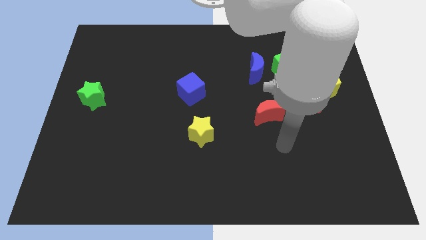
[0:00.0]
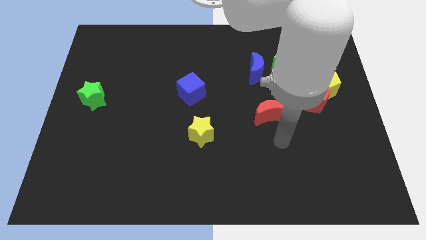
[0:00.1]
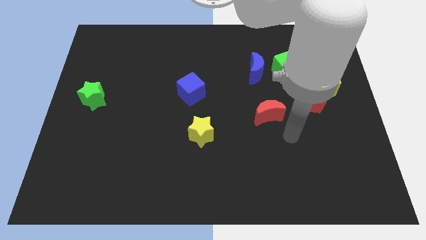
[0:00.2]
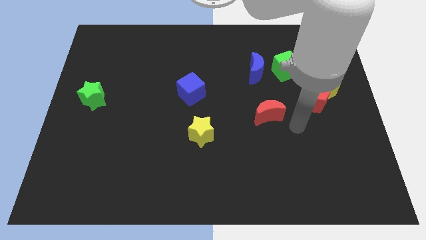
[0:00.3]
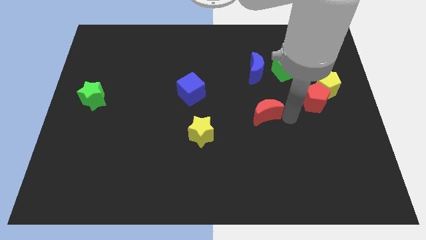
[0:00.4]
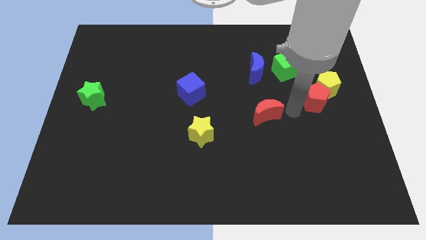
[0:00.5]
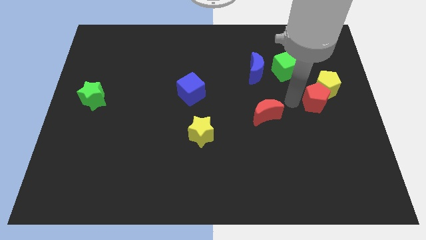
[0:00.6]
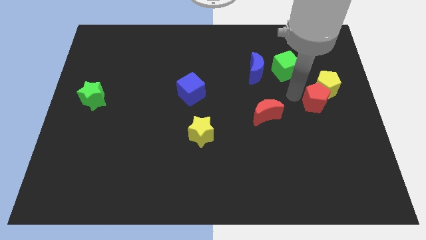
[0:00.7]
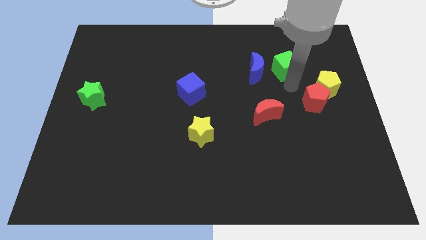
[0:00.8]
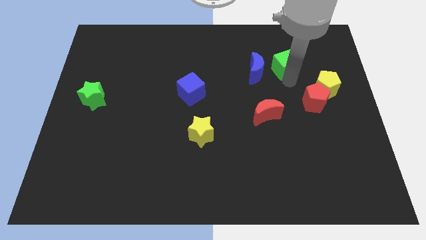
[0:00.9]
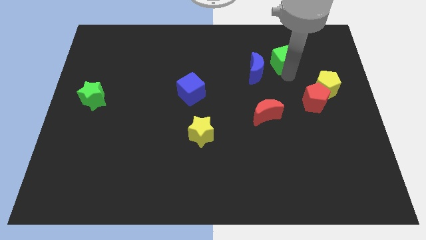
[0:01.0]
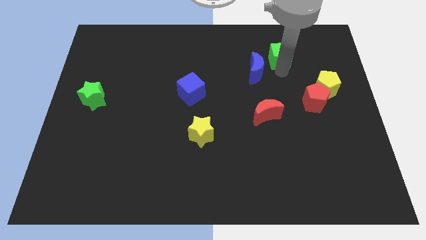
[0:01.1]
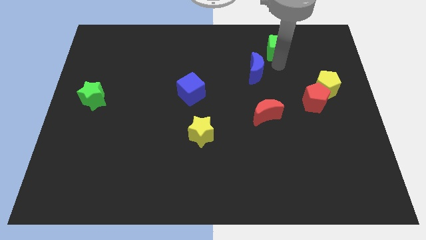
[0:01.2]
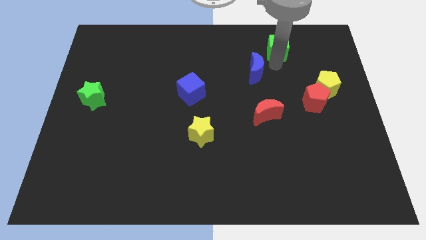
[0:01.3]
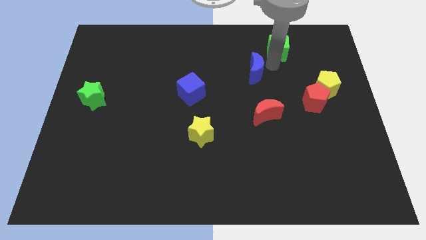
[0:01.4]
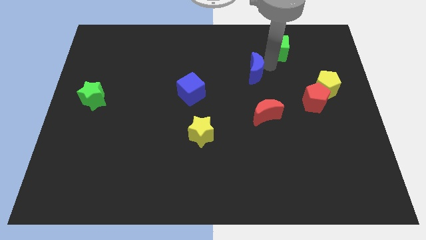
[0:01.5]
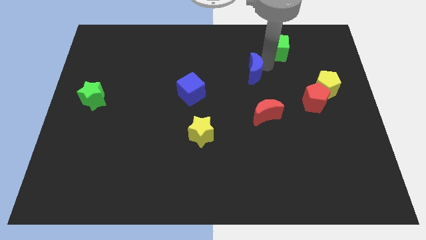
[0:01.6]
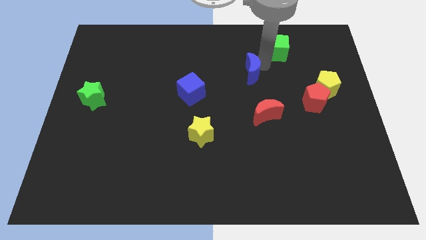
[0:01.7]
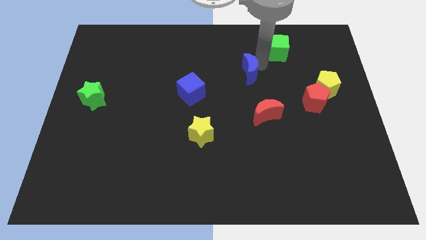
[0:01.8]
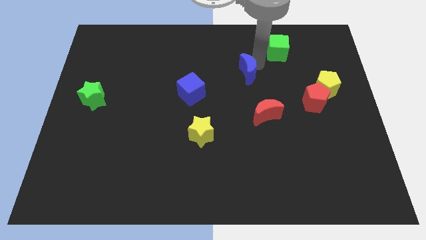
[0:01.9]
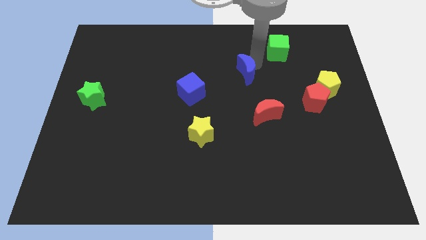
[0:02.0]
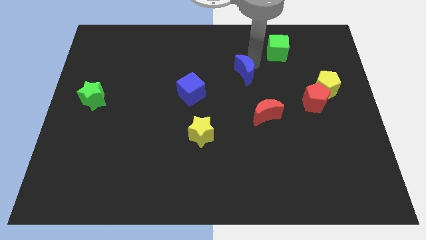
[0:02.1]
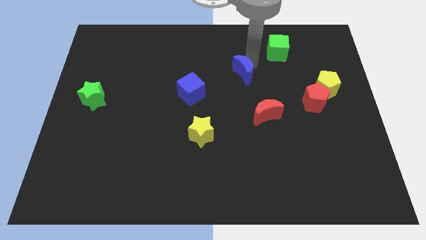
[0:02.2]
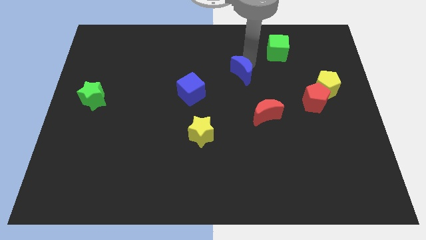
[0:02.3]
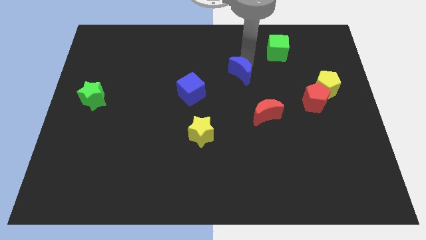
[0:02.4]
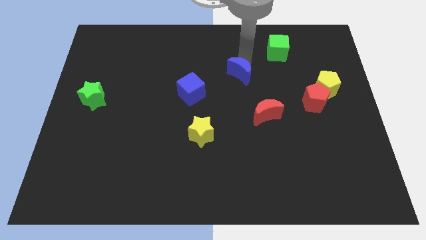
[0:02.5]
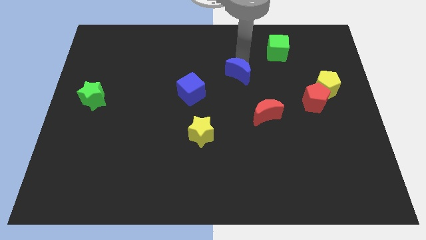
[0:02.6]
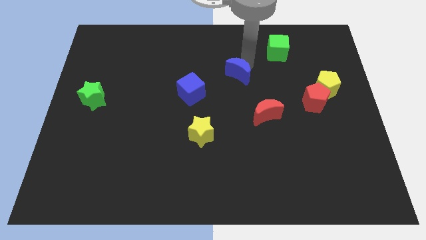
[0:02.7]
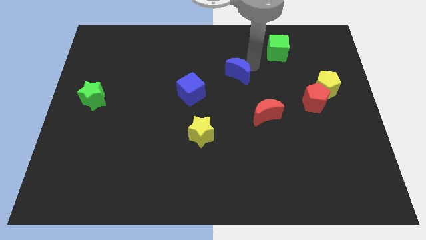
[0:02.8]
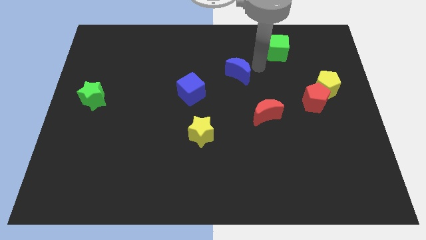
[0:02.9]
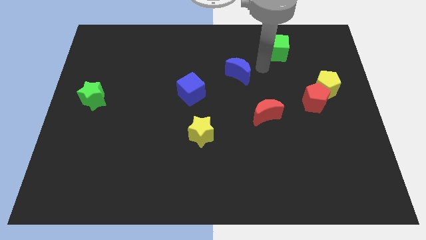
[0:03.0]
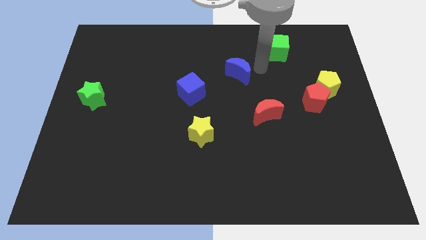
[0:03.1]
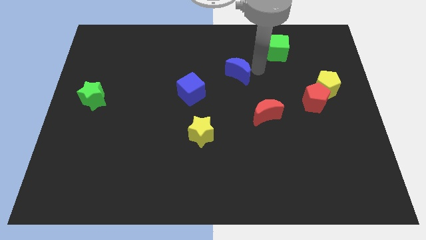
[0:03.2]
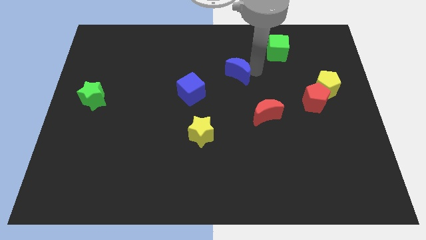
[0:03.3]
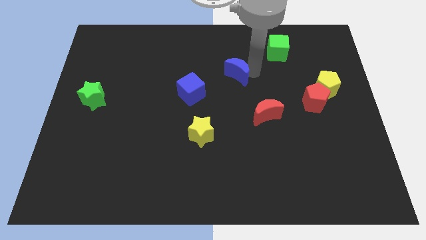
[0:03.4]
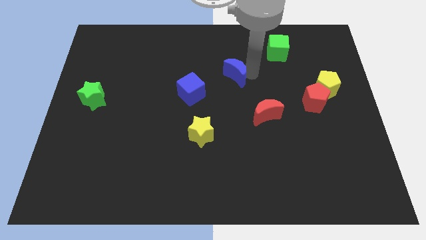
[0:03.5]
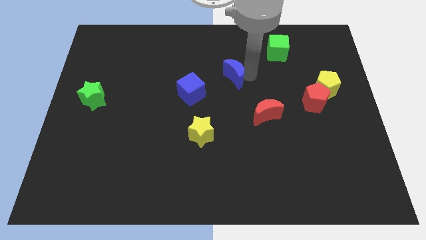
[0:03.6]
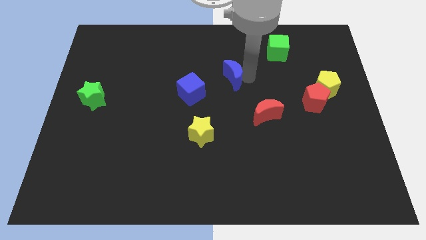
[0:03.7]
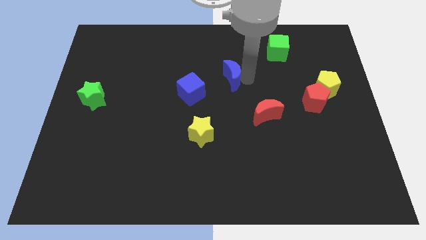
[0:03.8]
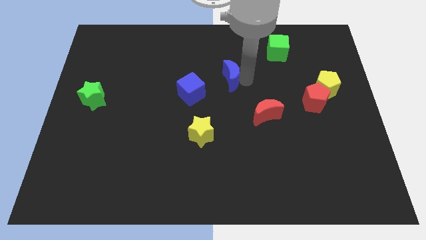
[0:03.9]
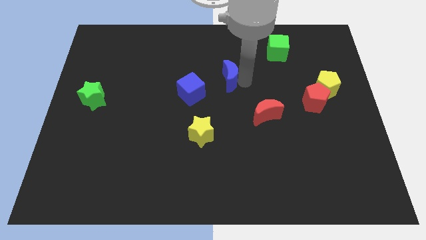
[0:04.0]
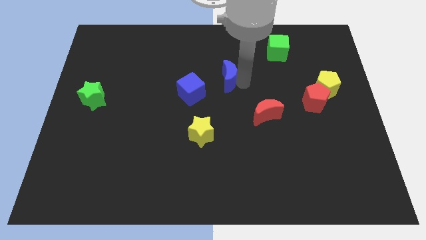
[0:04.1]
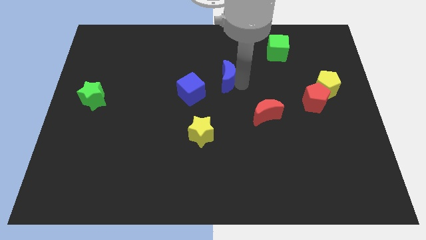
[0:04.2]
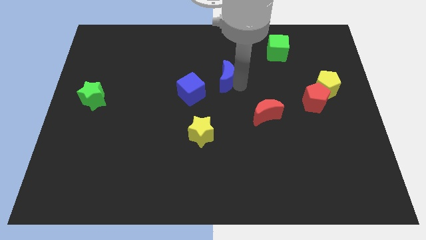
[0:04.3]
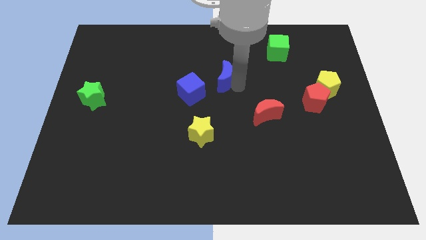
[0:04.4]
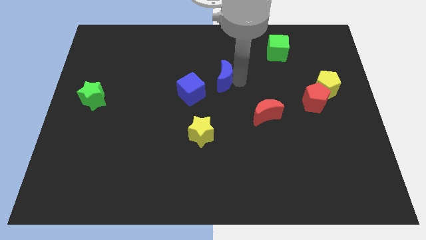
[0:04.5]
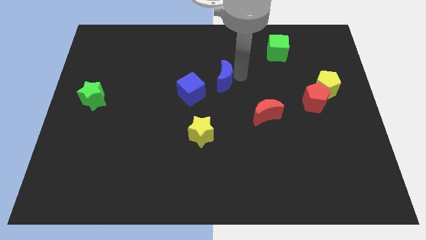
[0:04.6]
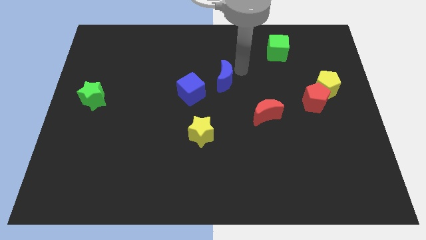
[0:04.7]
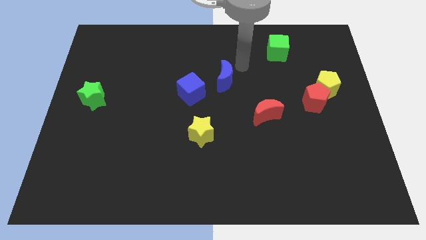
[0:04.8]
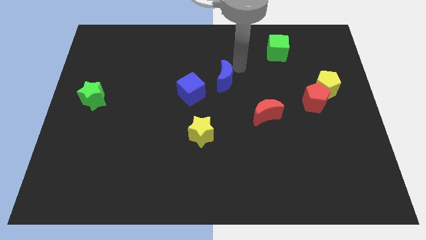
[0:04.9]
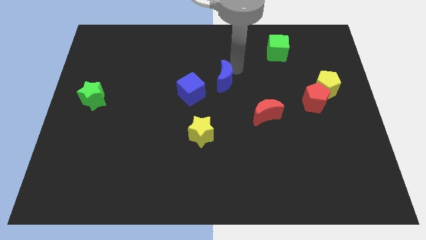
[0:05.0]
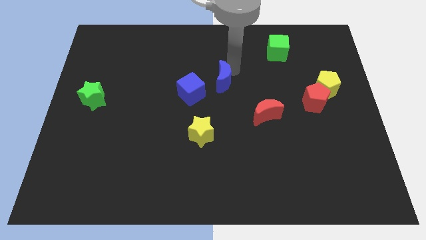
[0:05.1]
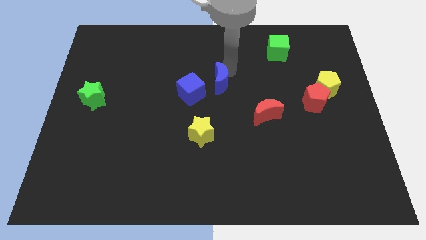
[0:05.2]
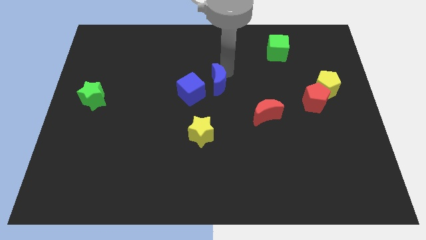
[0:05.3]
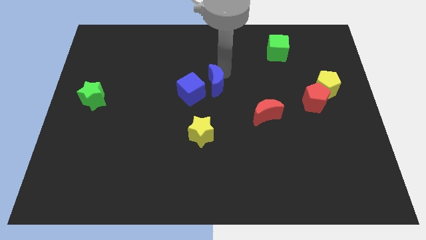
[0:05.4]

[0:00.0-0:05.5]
put the blue moon above the yellow star

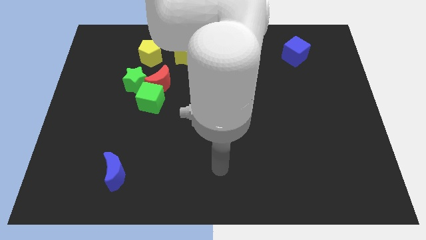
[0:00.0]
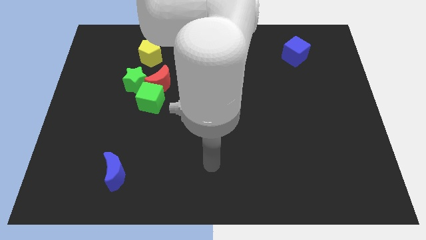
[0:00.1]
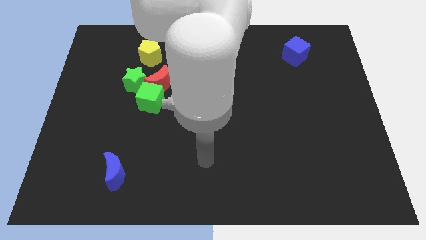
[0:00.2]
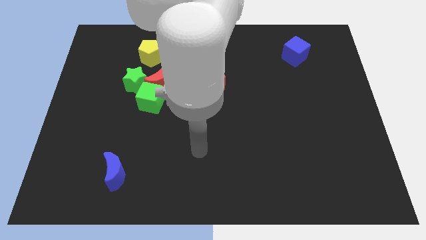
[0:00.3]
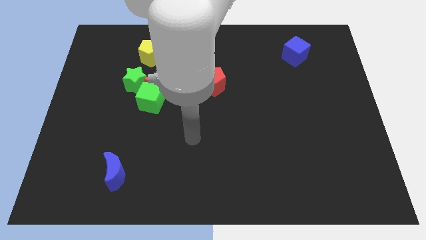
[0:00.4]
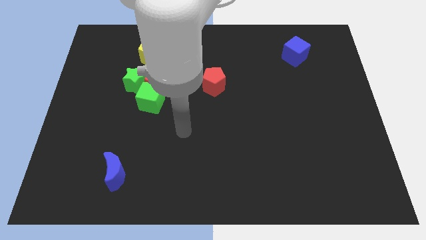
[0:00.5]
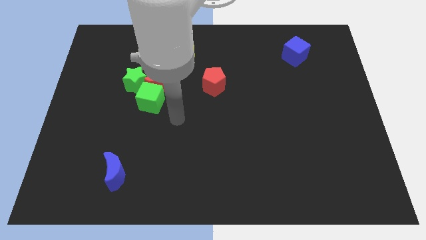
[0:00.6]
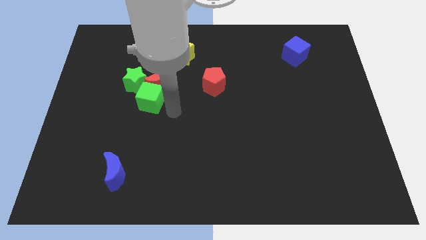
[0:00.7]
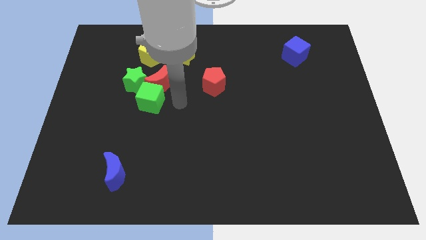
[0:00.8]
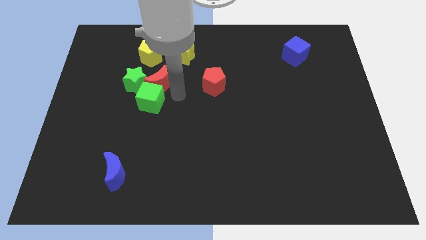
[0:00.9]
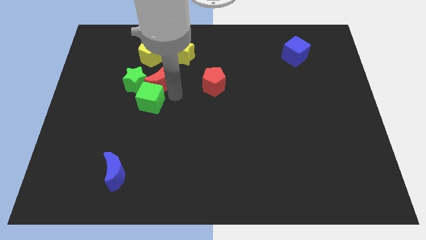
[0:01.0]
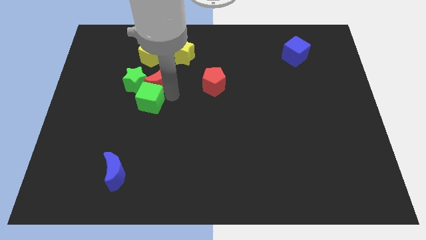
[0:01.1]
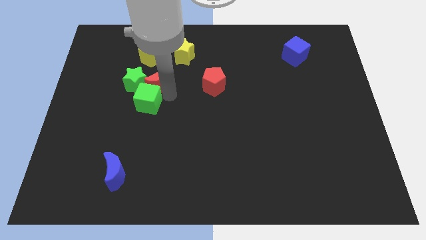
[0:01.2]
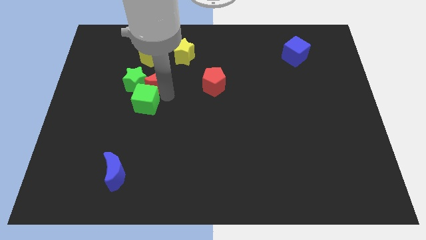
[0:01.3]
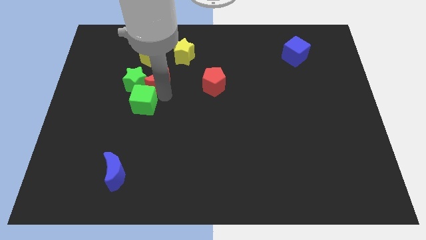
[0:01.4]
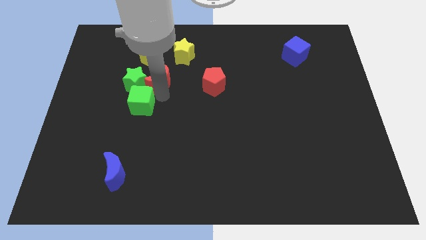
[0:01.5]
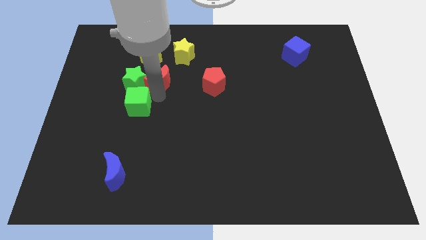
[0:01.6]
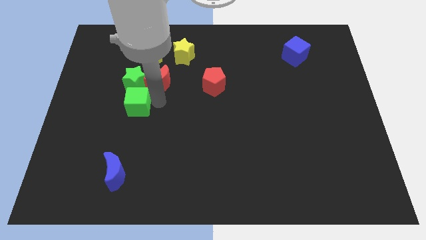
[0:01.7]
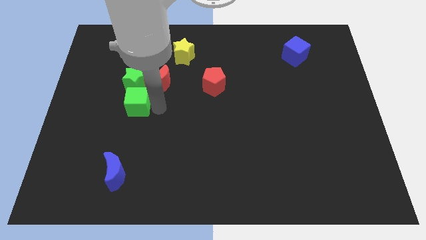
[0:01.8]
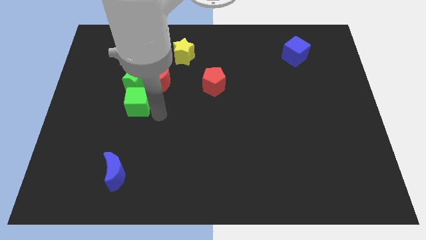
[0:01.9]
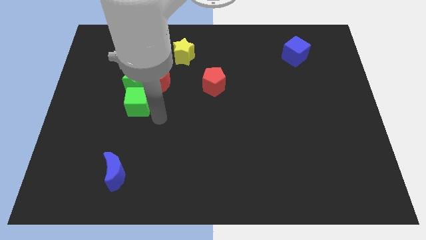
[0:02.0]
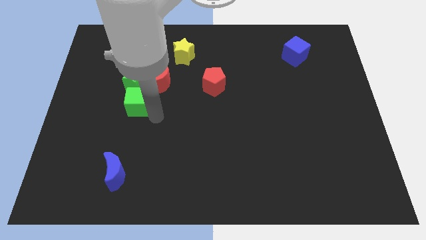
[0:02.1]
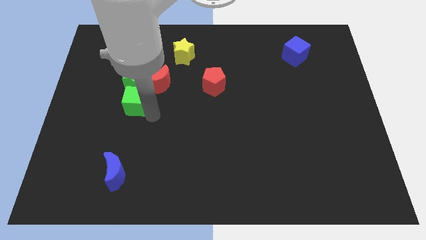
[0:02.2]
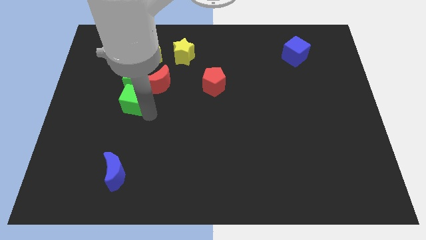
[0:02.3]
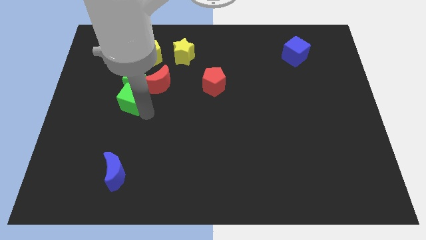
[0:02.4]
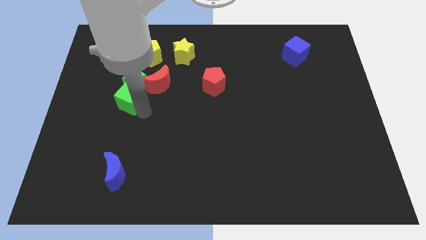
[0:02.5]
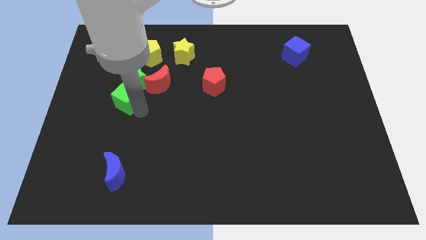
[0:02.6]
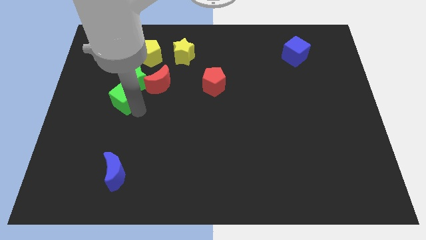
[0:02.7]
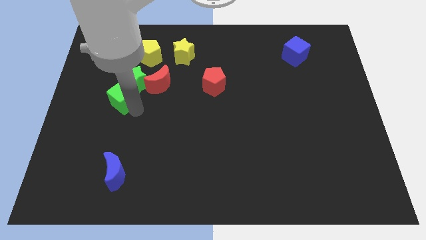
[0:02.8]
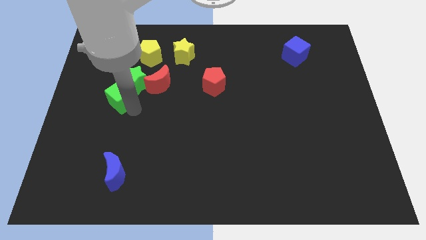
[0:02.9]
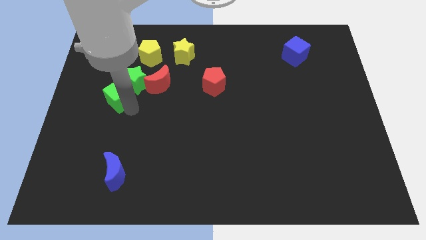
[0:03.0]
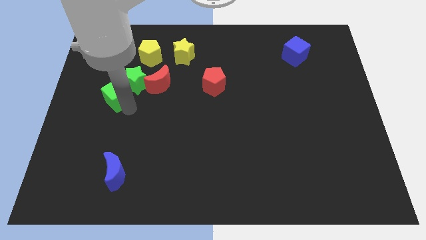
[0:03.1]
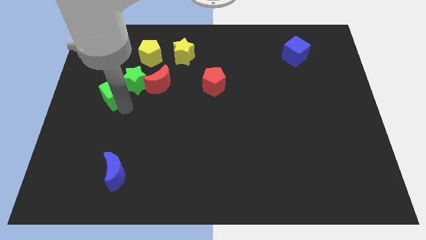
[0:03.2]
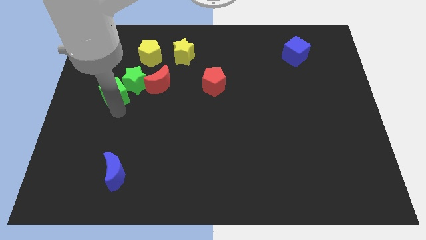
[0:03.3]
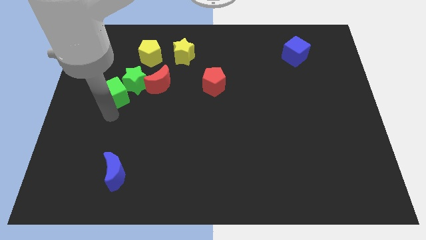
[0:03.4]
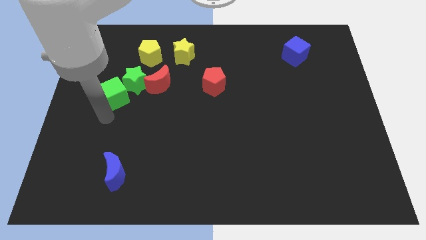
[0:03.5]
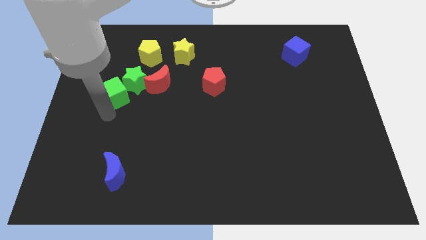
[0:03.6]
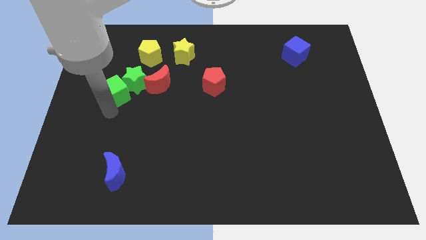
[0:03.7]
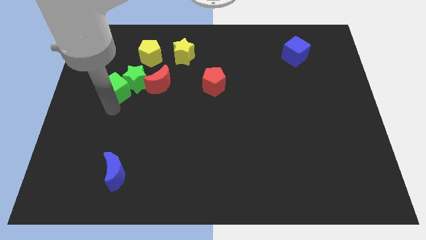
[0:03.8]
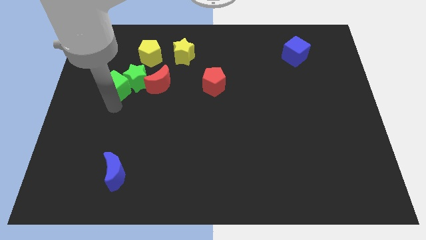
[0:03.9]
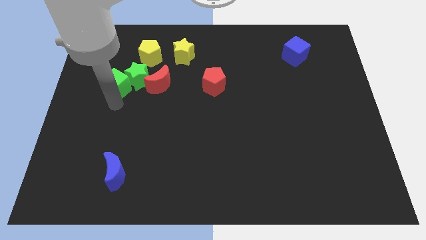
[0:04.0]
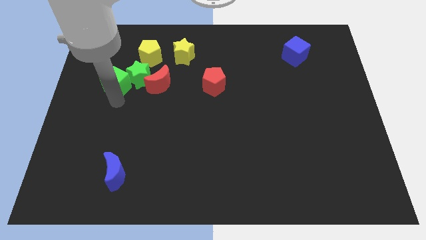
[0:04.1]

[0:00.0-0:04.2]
push the green cube diagonally down and to the left of the yellow pentagon
